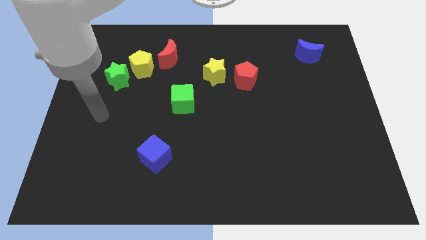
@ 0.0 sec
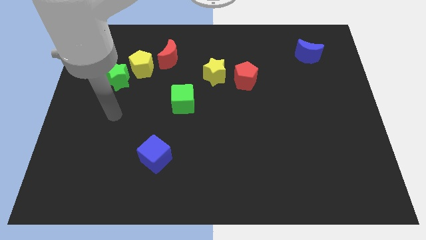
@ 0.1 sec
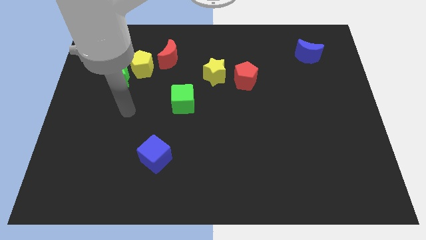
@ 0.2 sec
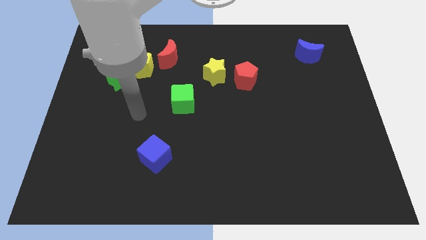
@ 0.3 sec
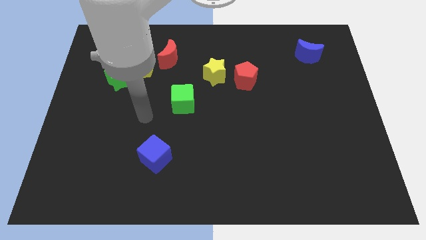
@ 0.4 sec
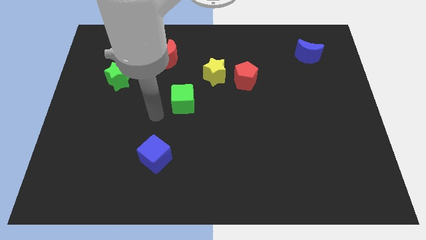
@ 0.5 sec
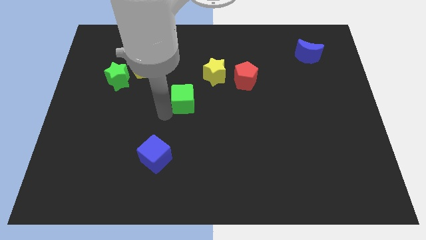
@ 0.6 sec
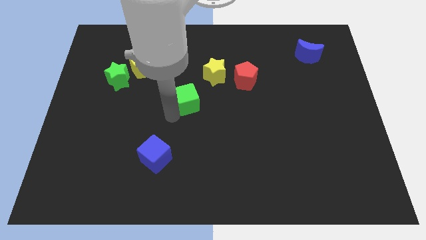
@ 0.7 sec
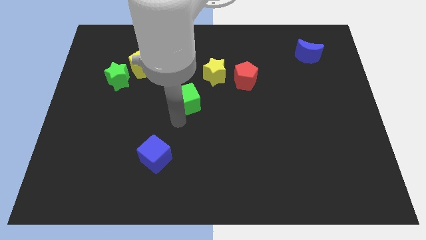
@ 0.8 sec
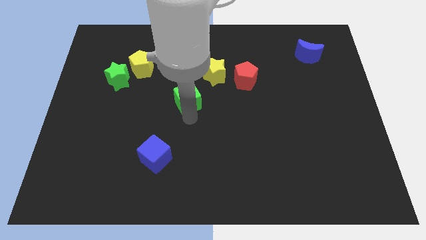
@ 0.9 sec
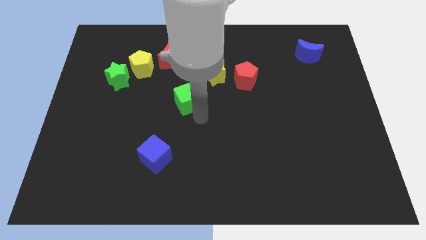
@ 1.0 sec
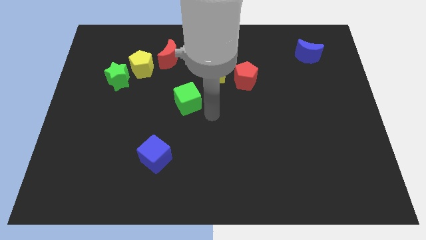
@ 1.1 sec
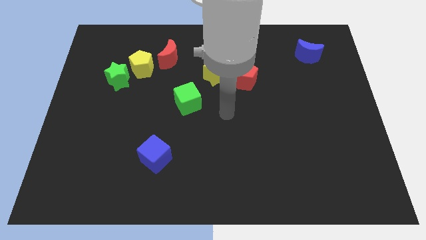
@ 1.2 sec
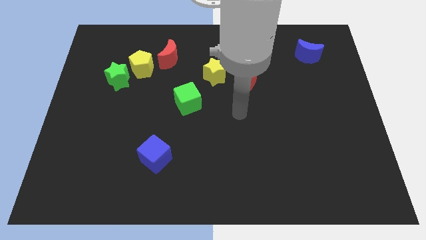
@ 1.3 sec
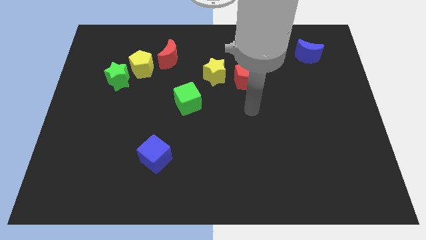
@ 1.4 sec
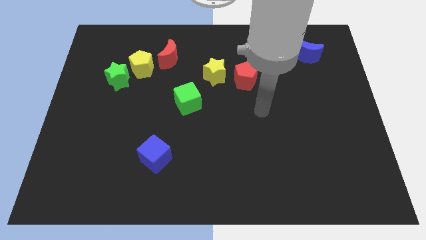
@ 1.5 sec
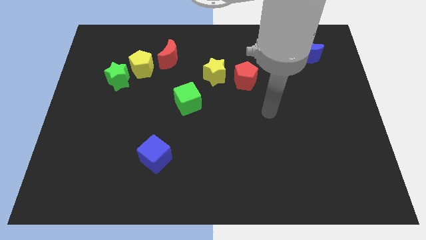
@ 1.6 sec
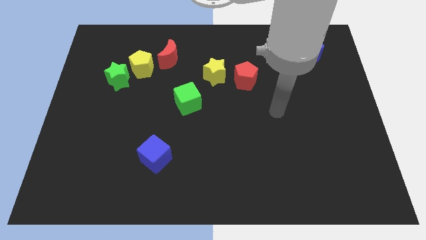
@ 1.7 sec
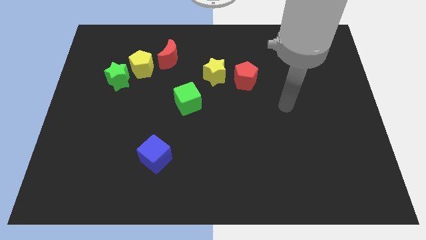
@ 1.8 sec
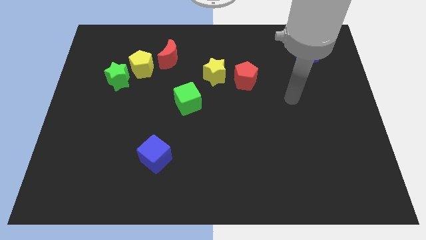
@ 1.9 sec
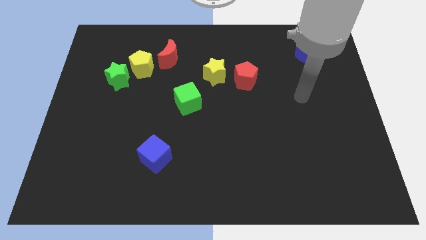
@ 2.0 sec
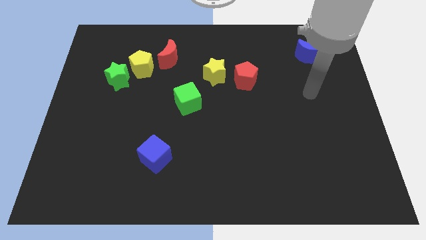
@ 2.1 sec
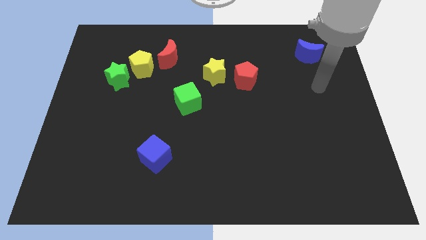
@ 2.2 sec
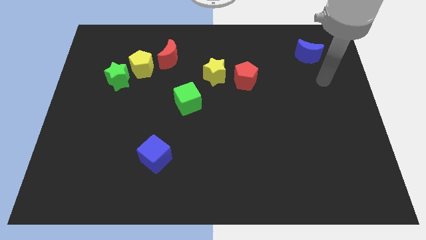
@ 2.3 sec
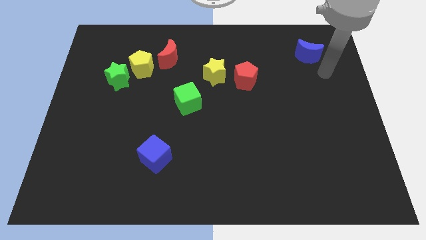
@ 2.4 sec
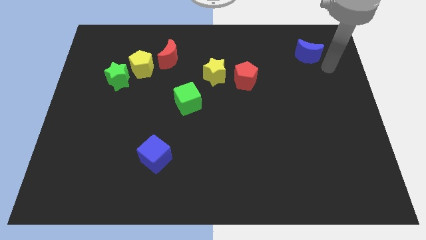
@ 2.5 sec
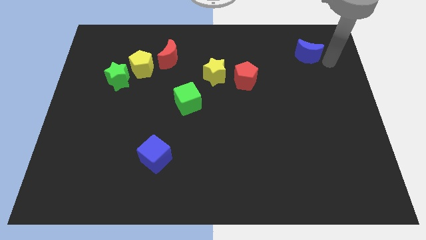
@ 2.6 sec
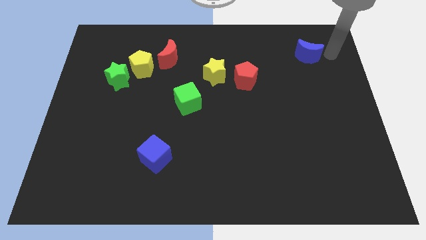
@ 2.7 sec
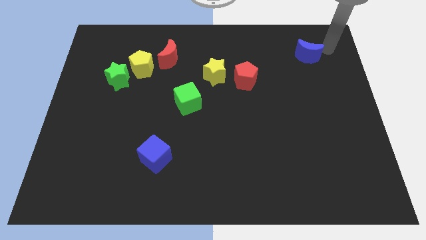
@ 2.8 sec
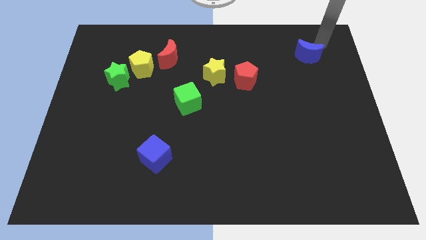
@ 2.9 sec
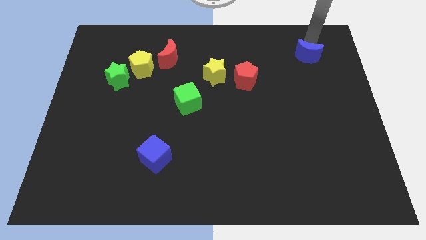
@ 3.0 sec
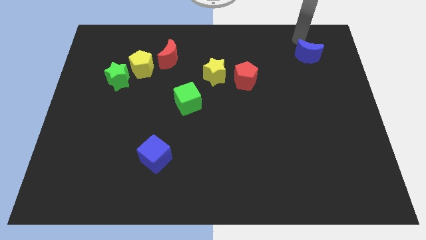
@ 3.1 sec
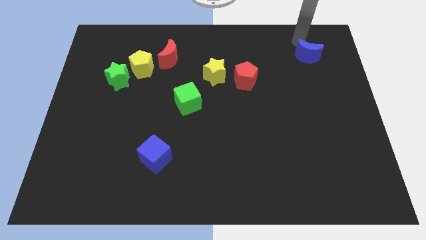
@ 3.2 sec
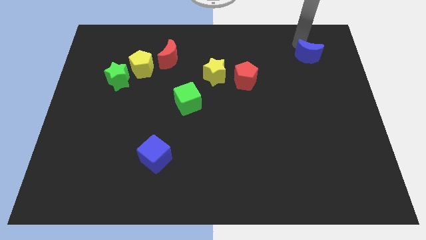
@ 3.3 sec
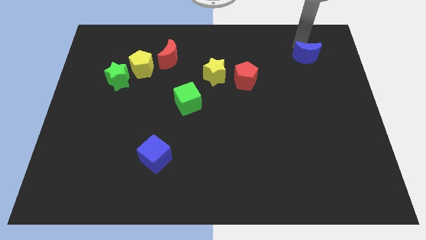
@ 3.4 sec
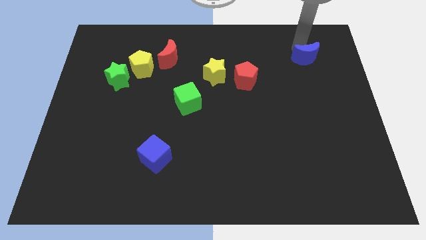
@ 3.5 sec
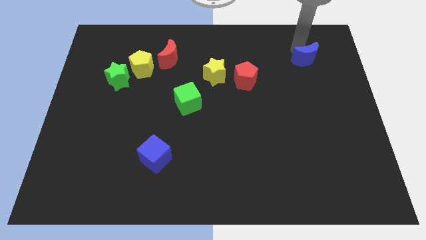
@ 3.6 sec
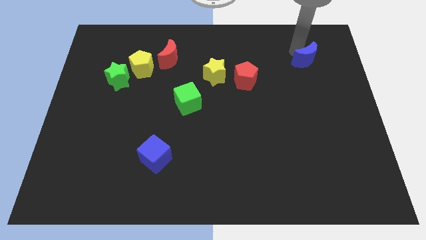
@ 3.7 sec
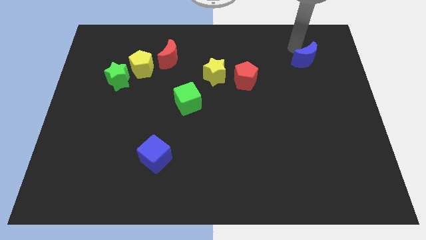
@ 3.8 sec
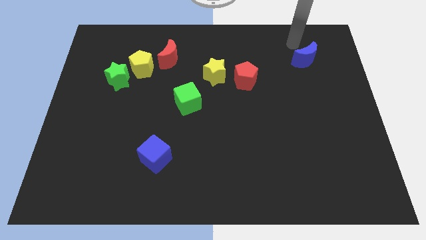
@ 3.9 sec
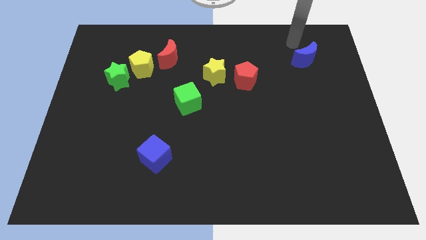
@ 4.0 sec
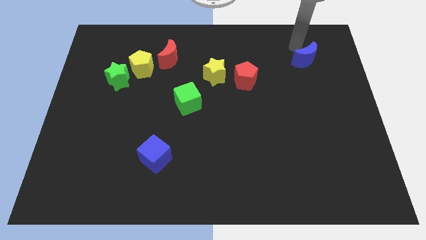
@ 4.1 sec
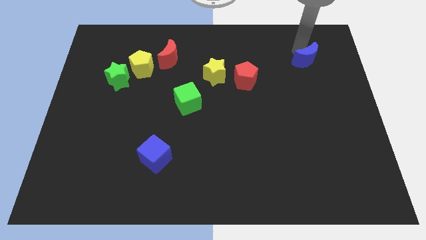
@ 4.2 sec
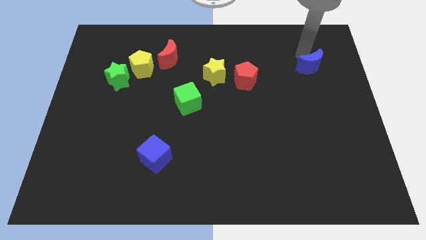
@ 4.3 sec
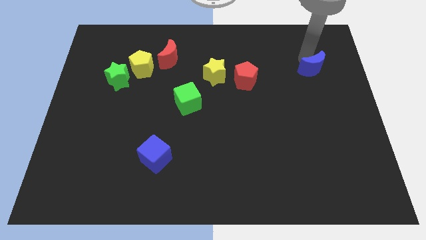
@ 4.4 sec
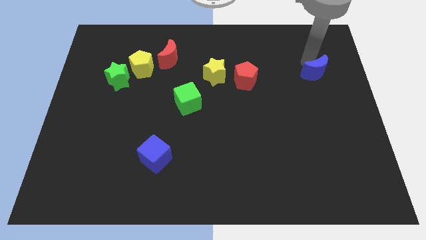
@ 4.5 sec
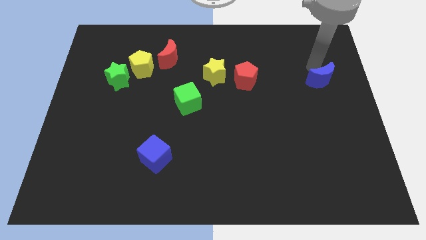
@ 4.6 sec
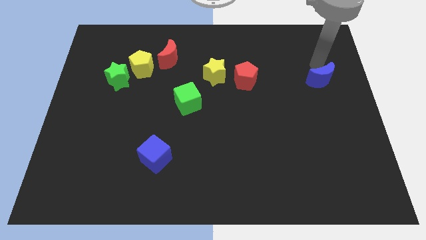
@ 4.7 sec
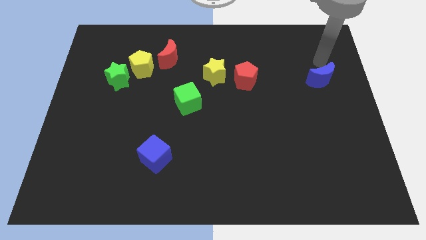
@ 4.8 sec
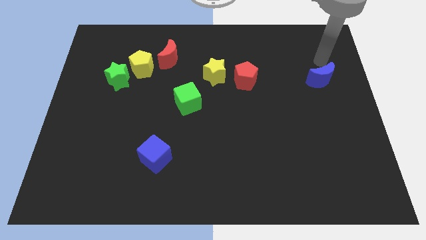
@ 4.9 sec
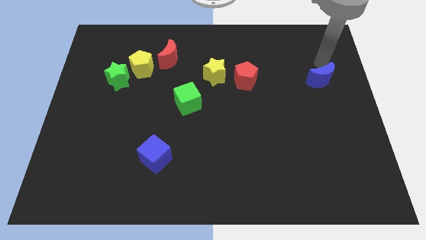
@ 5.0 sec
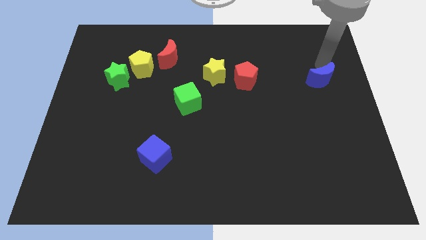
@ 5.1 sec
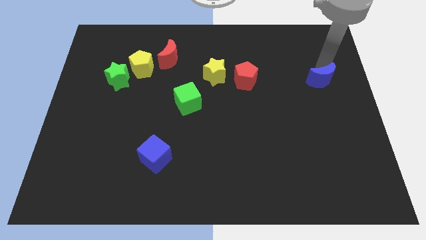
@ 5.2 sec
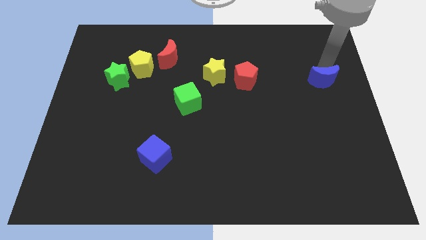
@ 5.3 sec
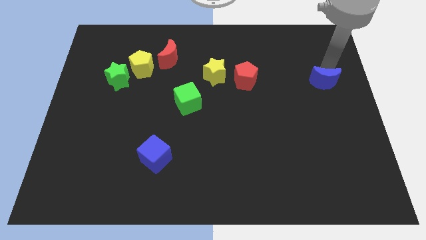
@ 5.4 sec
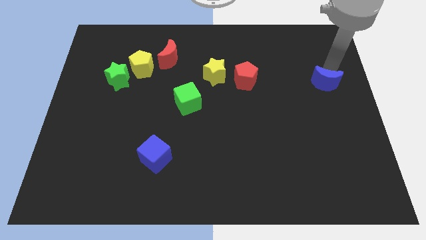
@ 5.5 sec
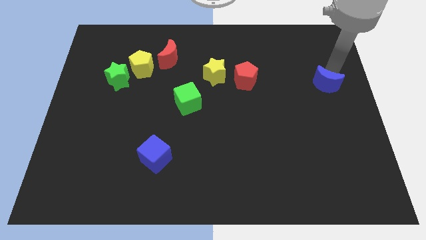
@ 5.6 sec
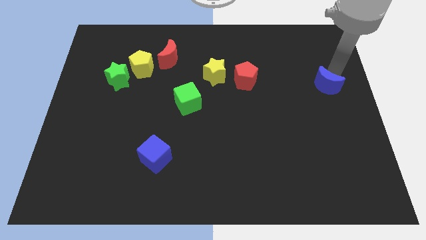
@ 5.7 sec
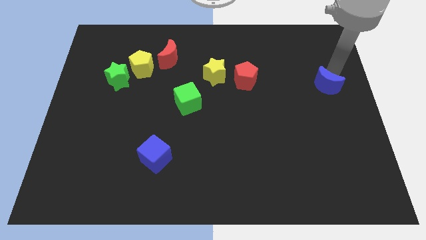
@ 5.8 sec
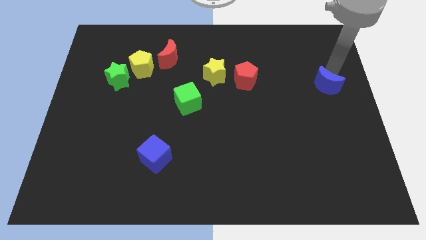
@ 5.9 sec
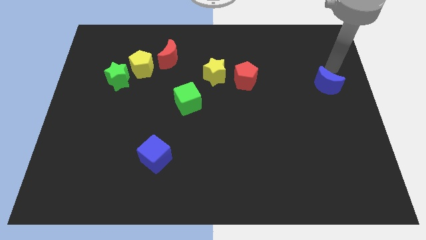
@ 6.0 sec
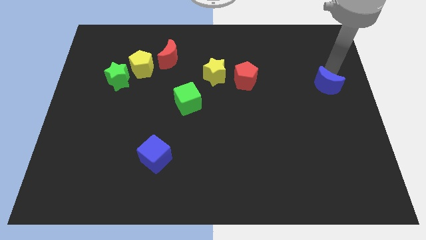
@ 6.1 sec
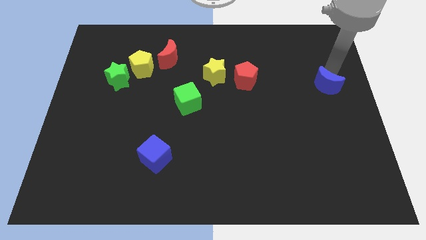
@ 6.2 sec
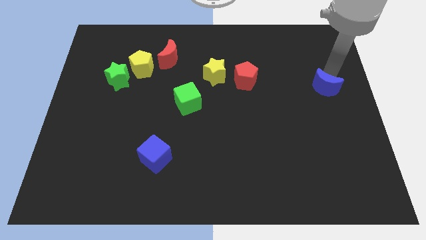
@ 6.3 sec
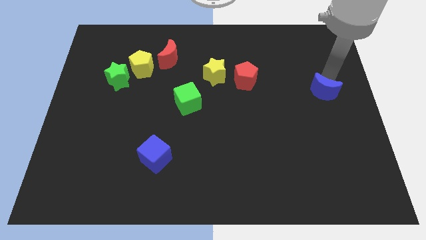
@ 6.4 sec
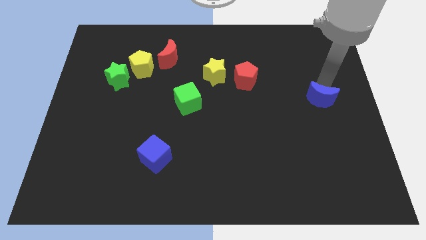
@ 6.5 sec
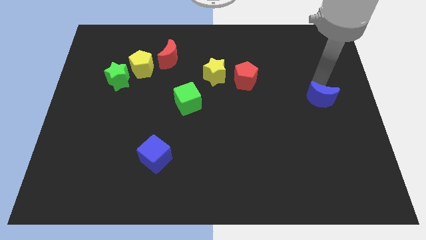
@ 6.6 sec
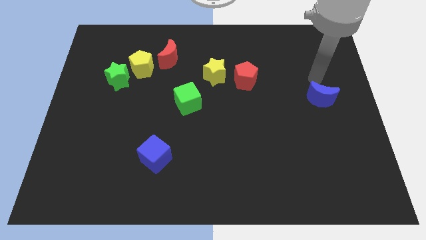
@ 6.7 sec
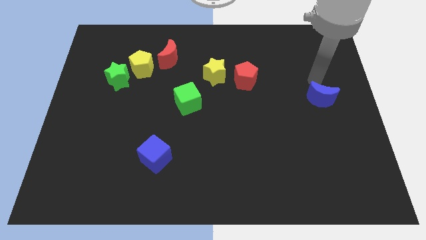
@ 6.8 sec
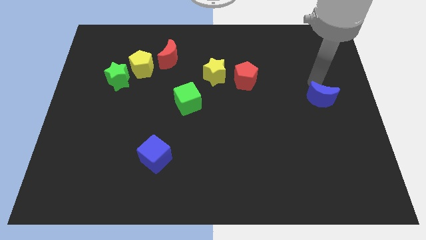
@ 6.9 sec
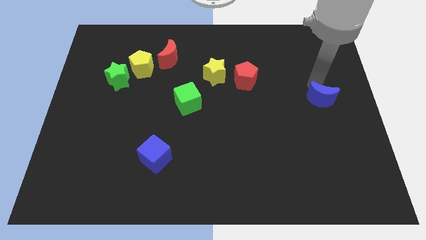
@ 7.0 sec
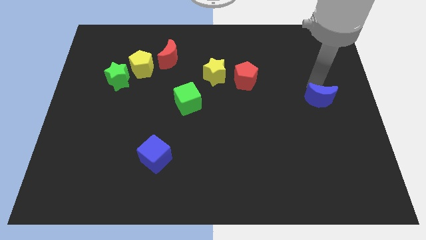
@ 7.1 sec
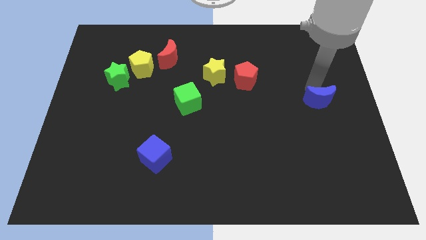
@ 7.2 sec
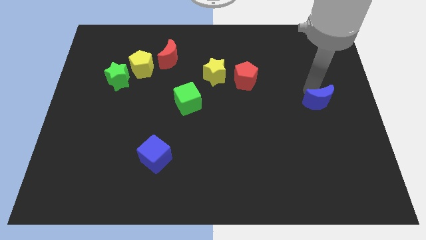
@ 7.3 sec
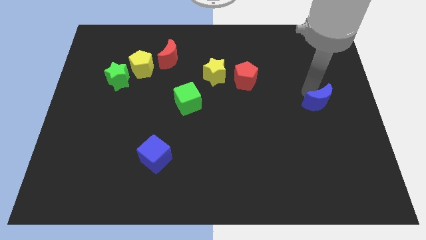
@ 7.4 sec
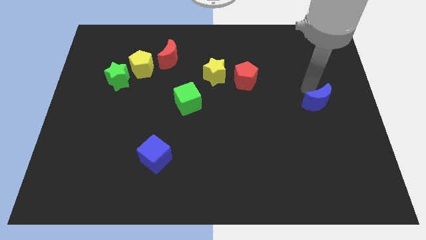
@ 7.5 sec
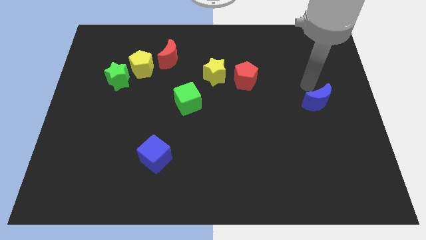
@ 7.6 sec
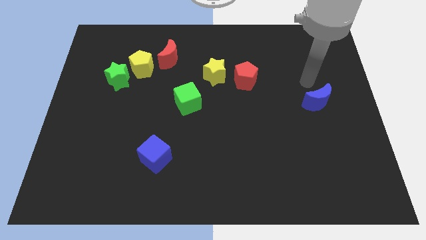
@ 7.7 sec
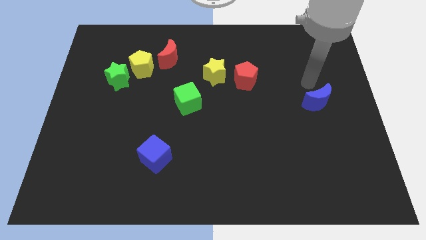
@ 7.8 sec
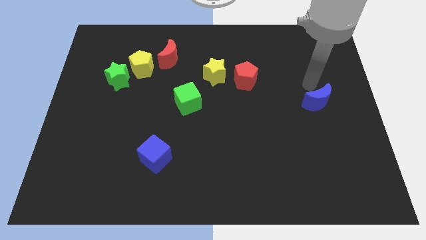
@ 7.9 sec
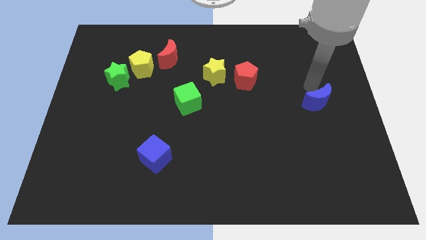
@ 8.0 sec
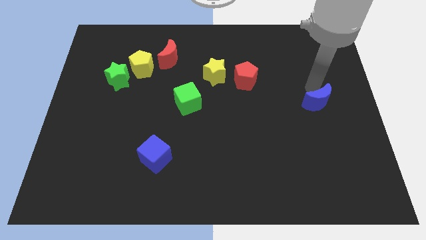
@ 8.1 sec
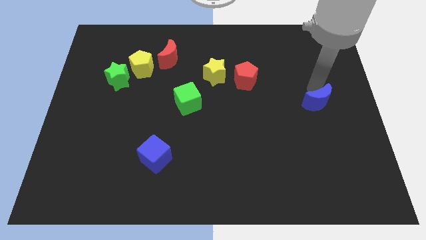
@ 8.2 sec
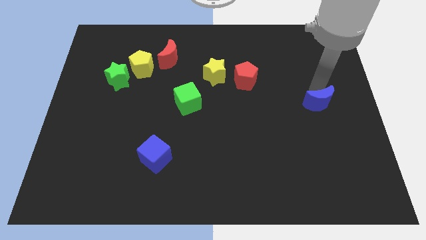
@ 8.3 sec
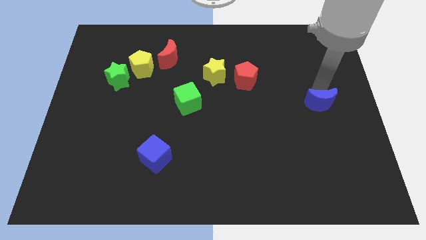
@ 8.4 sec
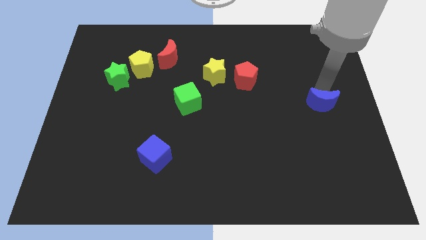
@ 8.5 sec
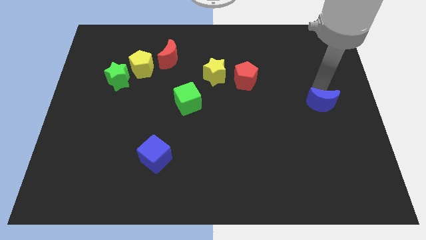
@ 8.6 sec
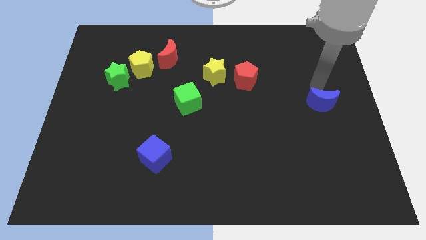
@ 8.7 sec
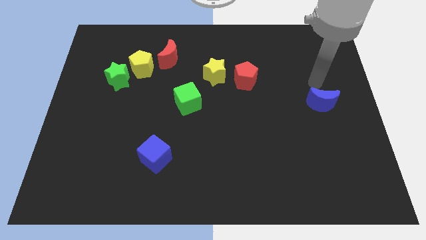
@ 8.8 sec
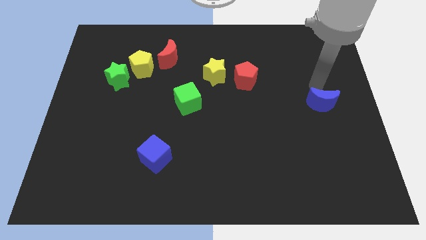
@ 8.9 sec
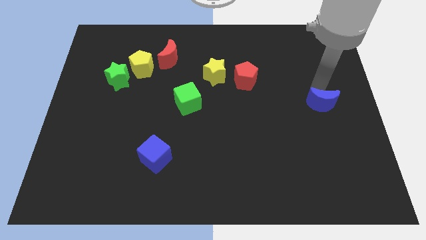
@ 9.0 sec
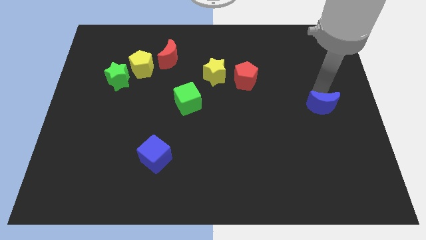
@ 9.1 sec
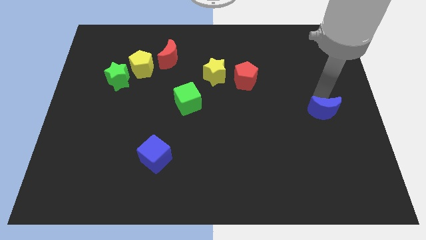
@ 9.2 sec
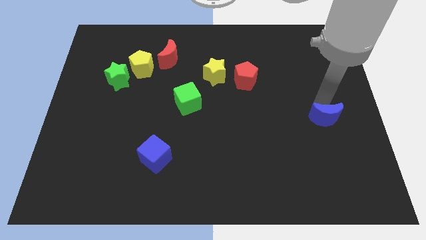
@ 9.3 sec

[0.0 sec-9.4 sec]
move the blue moon downwards
